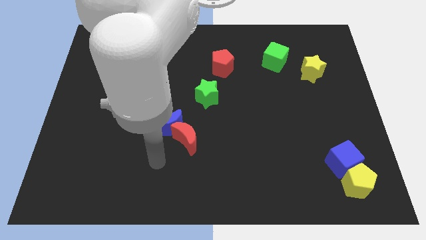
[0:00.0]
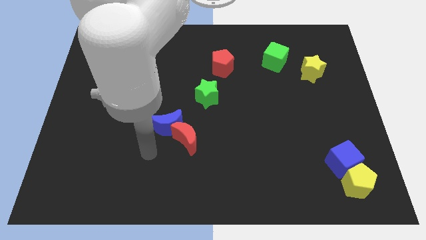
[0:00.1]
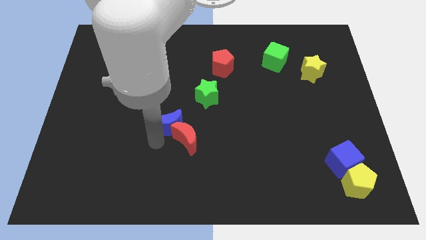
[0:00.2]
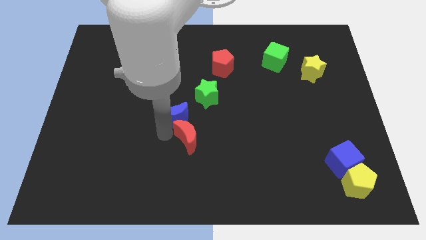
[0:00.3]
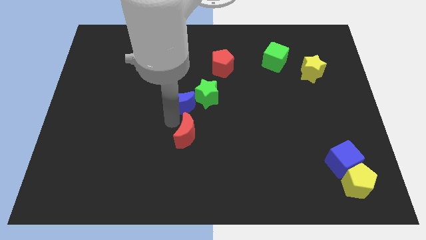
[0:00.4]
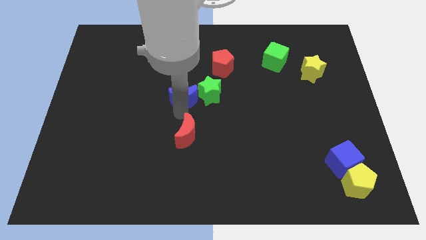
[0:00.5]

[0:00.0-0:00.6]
separate the red moon from the blue moon

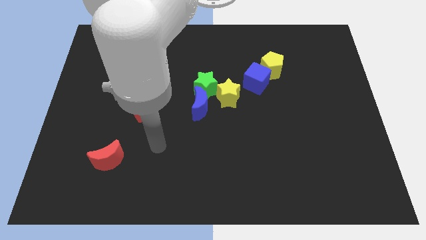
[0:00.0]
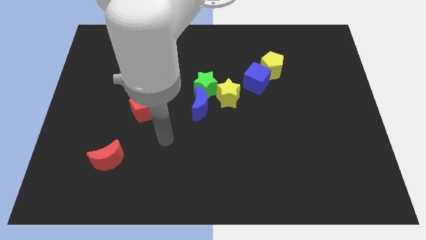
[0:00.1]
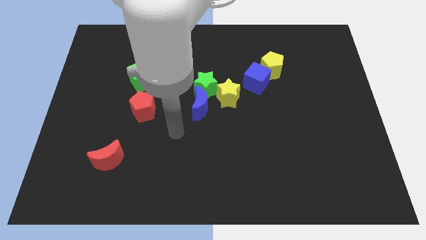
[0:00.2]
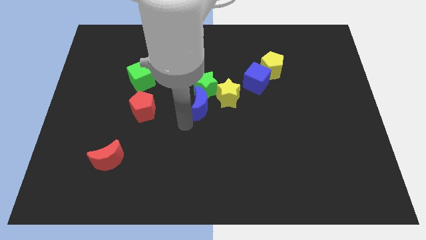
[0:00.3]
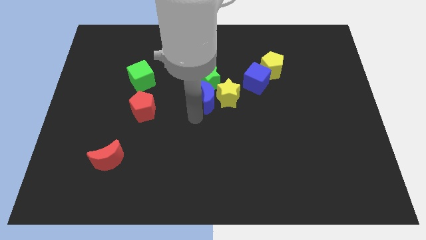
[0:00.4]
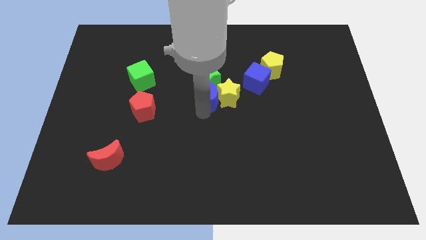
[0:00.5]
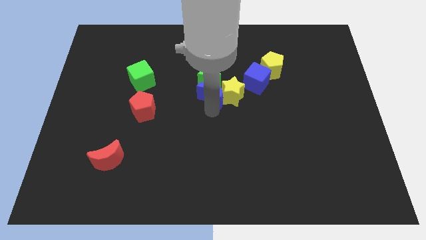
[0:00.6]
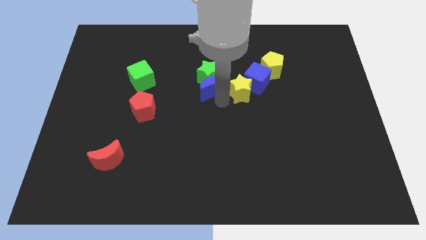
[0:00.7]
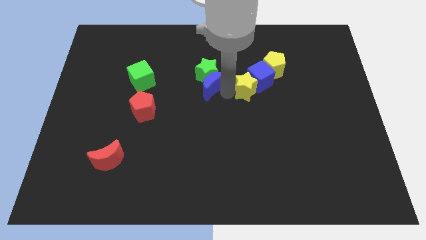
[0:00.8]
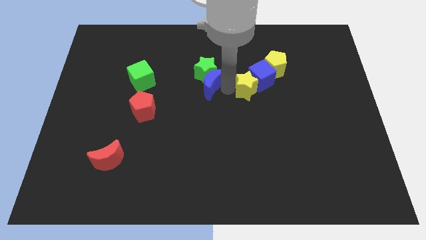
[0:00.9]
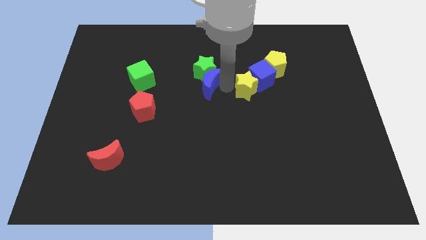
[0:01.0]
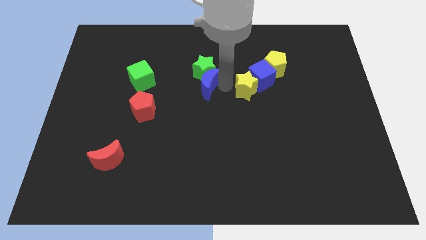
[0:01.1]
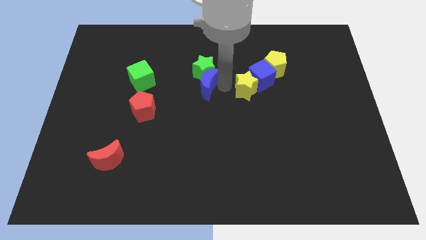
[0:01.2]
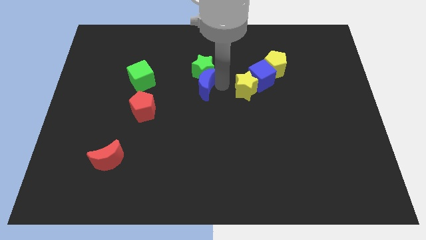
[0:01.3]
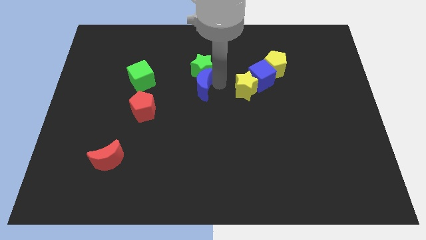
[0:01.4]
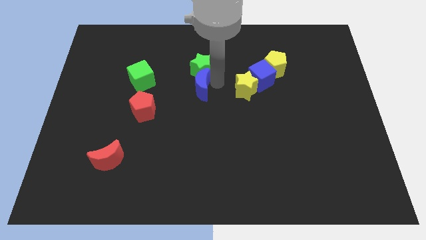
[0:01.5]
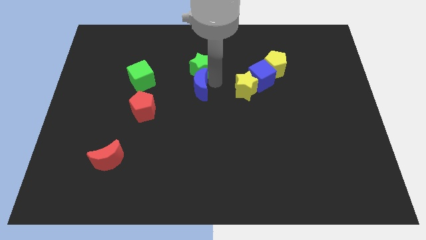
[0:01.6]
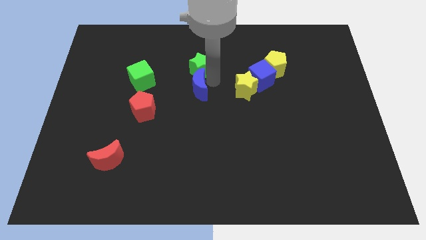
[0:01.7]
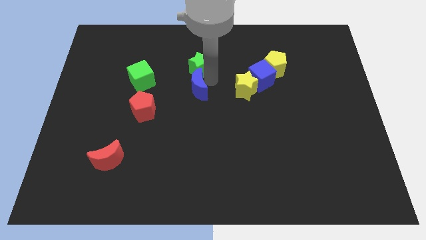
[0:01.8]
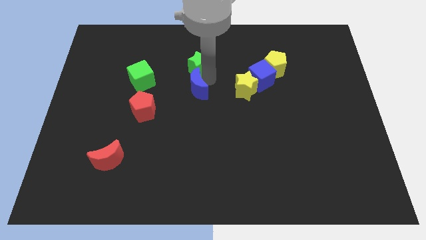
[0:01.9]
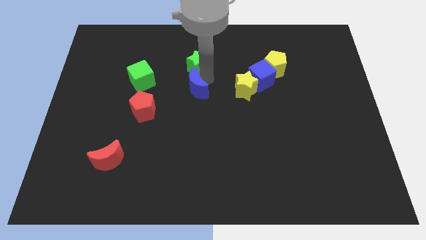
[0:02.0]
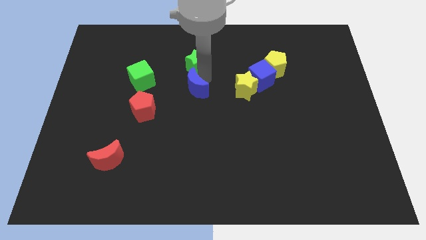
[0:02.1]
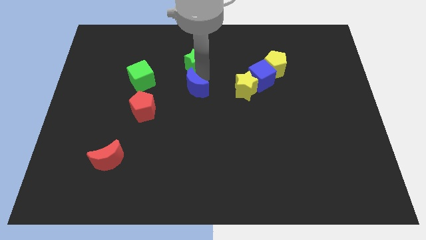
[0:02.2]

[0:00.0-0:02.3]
separate the green star from the blue moon and yellow star

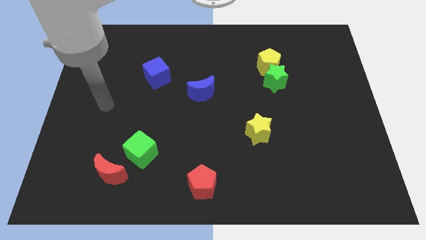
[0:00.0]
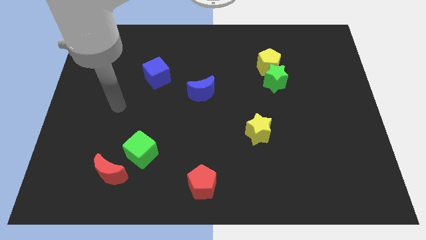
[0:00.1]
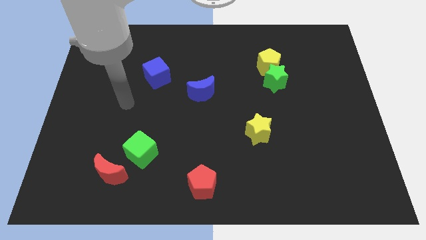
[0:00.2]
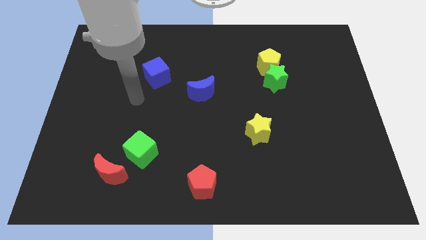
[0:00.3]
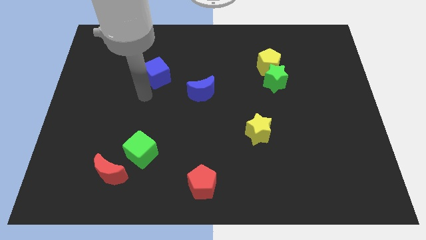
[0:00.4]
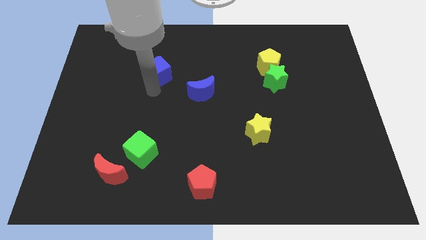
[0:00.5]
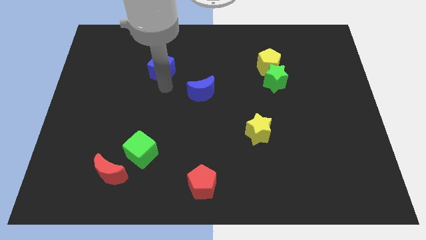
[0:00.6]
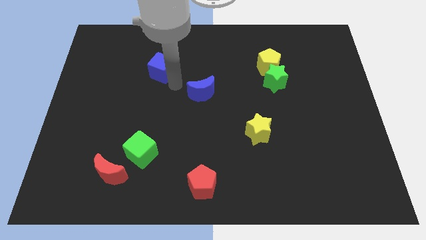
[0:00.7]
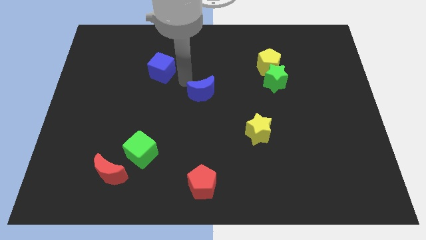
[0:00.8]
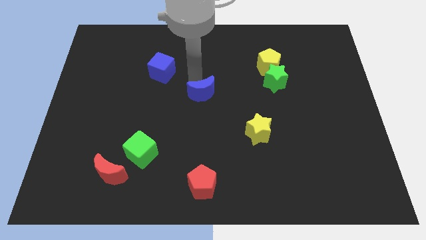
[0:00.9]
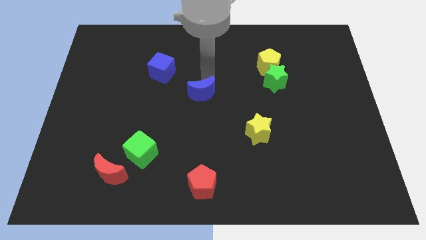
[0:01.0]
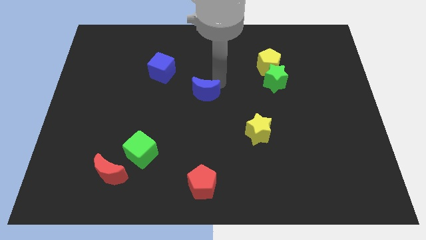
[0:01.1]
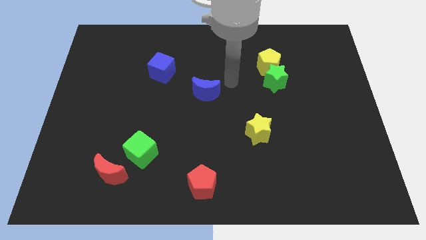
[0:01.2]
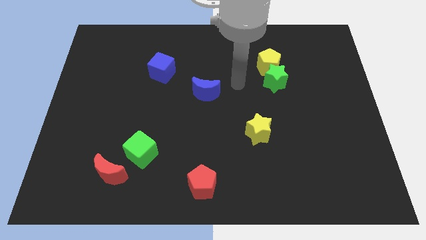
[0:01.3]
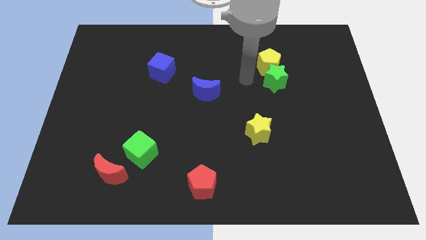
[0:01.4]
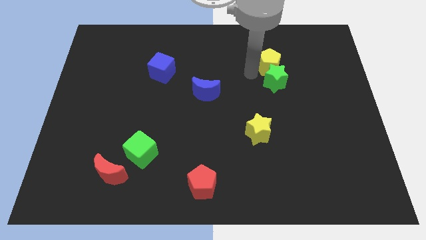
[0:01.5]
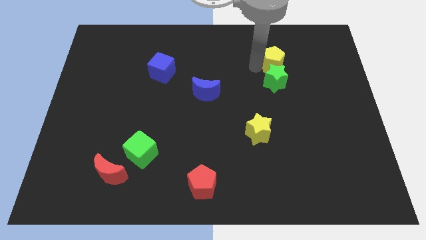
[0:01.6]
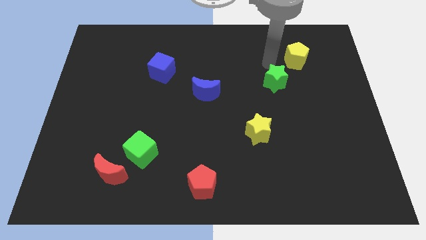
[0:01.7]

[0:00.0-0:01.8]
separate the green star from the yellow pentagon

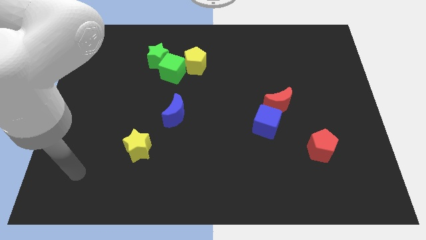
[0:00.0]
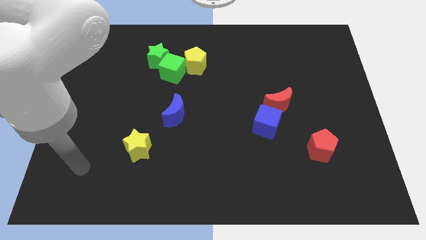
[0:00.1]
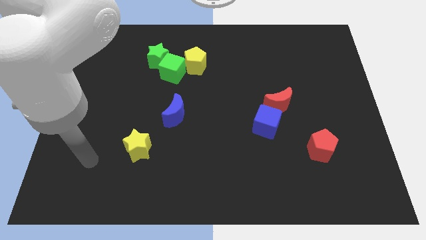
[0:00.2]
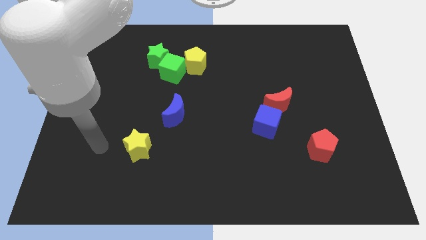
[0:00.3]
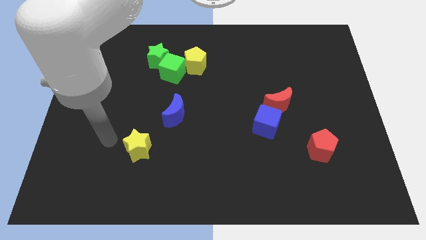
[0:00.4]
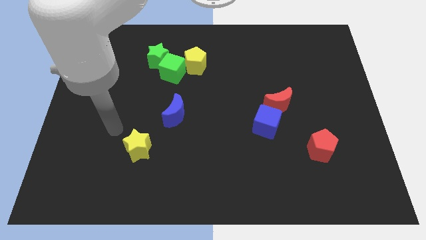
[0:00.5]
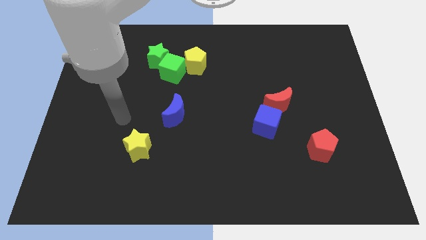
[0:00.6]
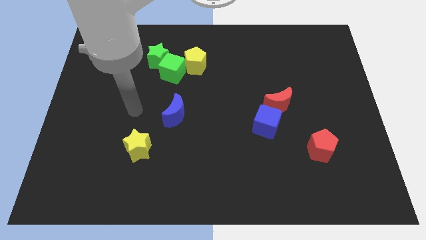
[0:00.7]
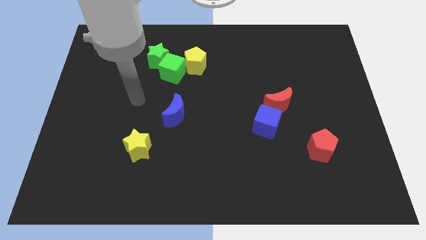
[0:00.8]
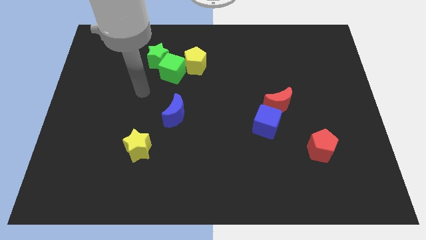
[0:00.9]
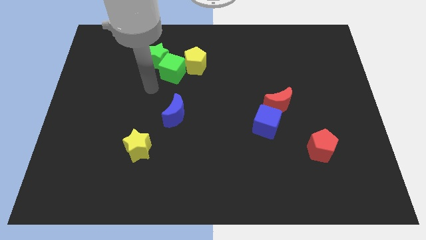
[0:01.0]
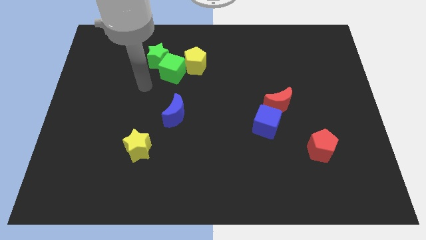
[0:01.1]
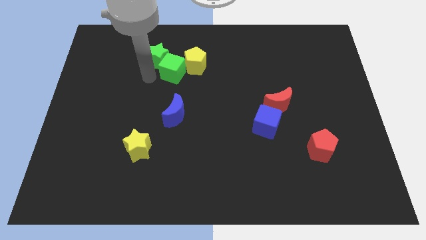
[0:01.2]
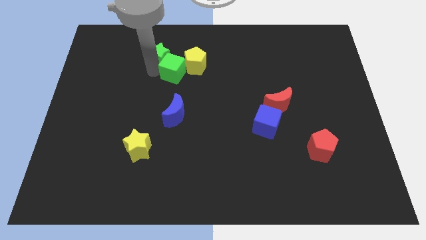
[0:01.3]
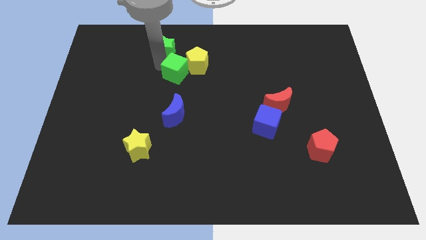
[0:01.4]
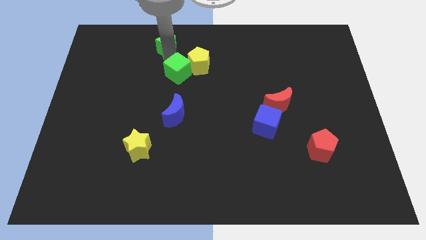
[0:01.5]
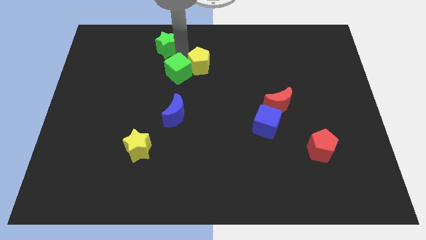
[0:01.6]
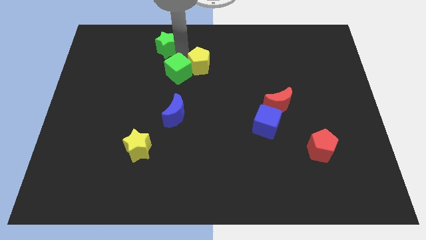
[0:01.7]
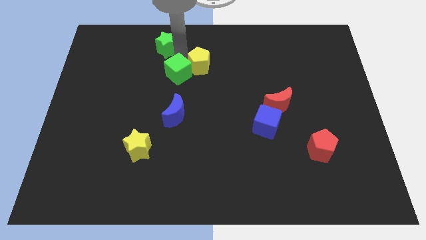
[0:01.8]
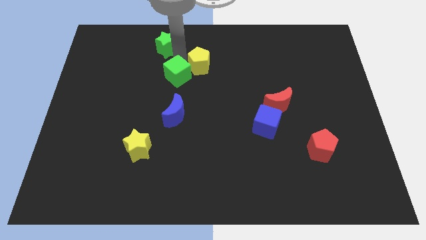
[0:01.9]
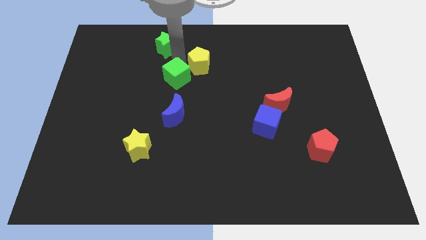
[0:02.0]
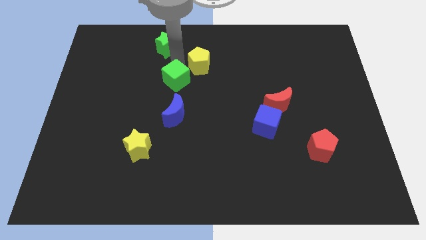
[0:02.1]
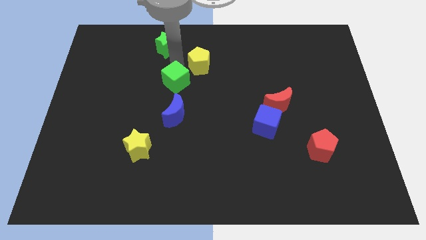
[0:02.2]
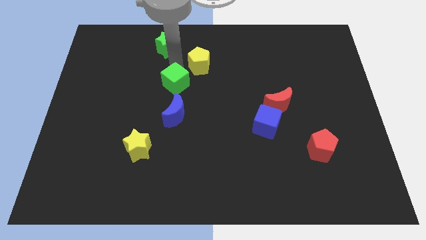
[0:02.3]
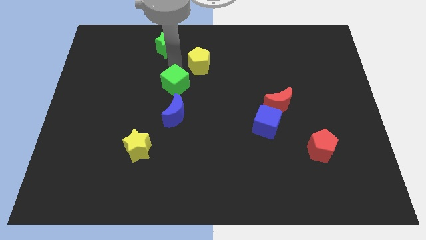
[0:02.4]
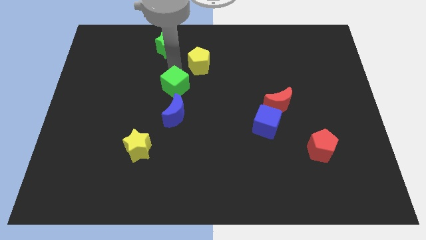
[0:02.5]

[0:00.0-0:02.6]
separate the green cube from the green star and yellow pentagon

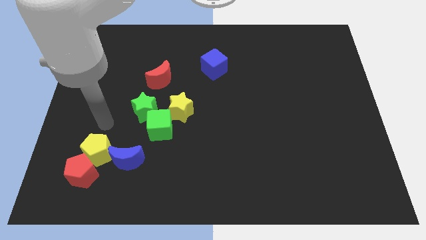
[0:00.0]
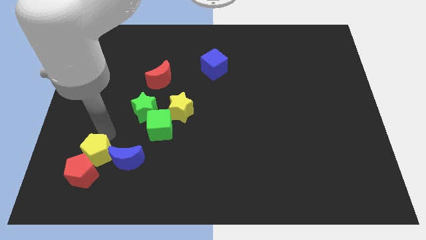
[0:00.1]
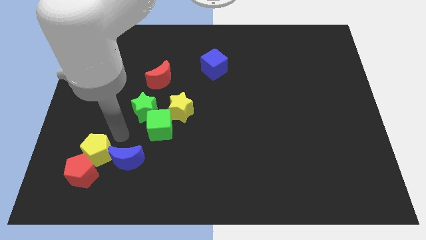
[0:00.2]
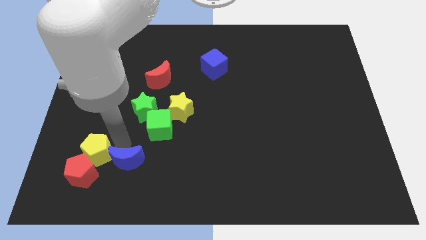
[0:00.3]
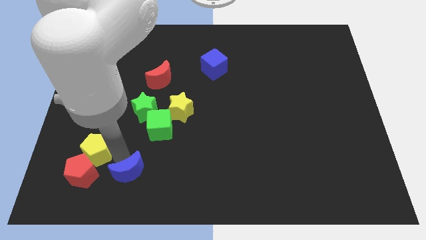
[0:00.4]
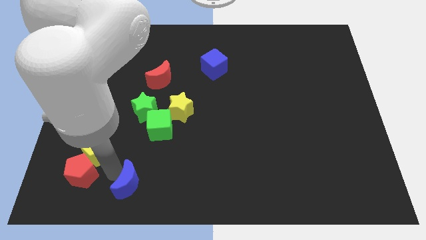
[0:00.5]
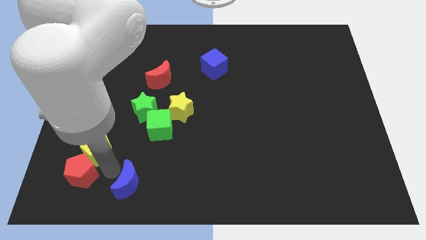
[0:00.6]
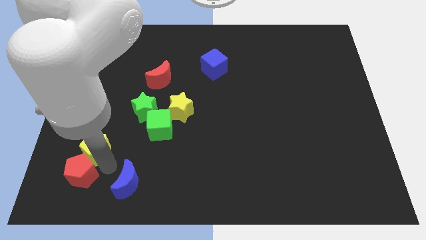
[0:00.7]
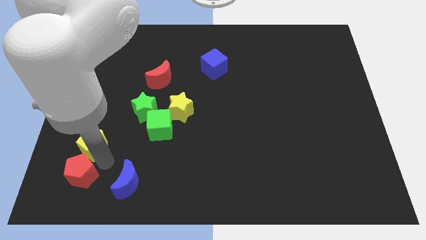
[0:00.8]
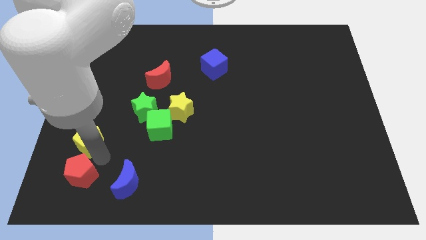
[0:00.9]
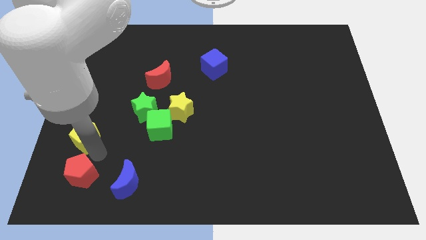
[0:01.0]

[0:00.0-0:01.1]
move the yellow pentagon away from the red pentagon and blue moon

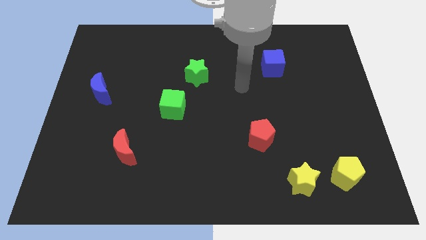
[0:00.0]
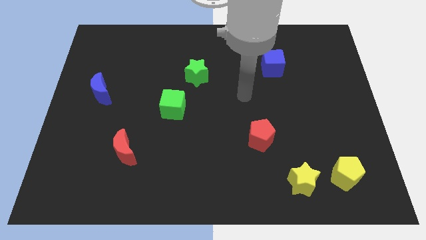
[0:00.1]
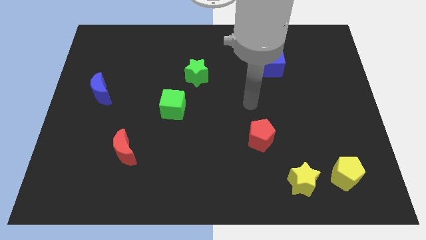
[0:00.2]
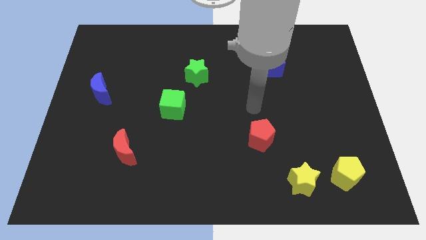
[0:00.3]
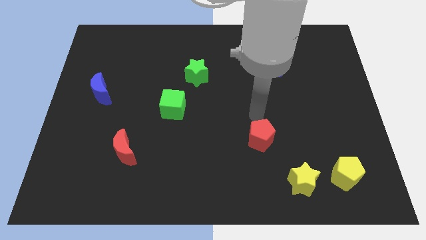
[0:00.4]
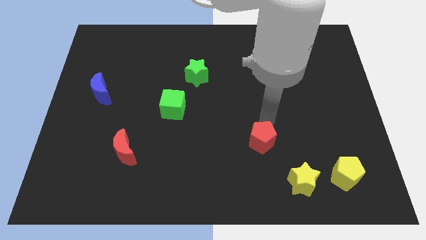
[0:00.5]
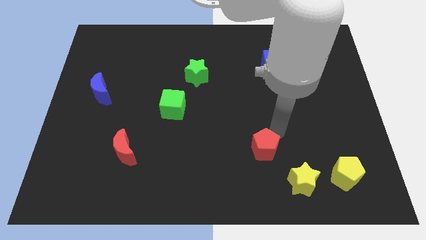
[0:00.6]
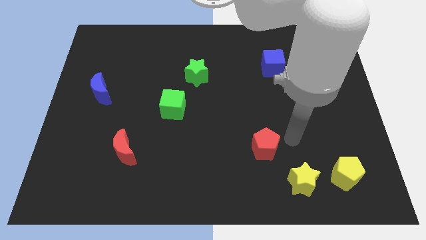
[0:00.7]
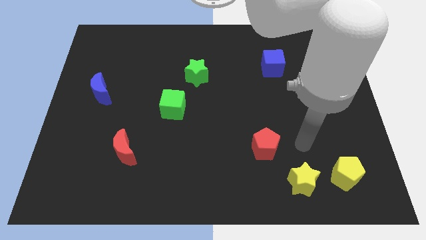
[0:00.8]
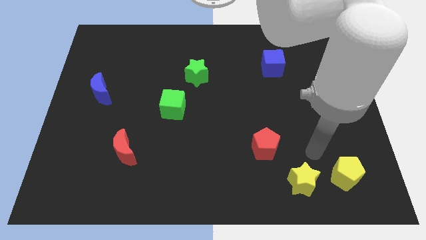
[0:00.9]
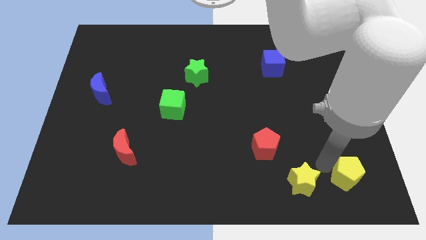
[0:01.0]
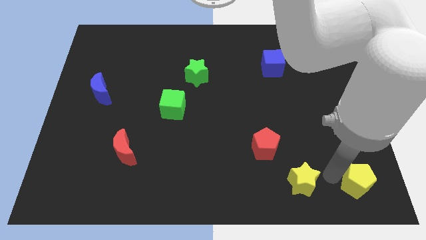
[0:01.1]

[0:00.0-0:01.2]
move the yellow star away from the yellow pentagon
